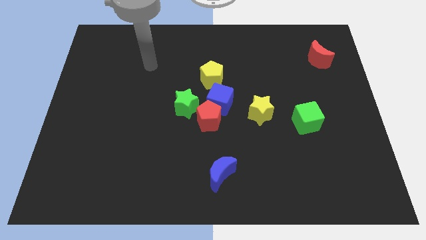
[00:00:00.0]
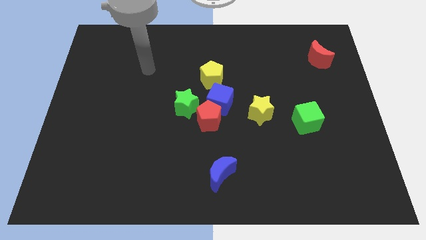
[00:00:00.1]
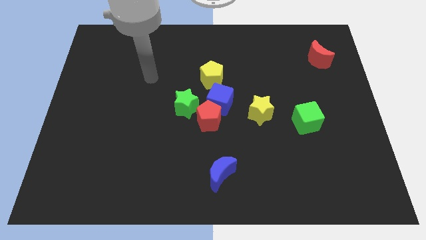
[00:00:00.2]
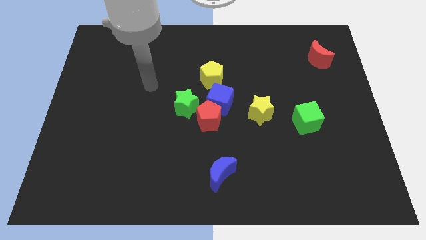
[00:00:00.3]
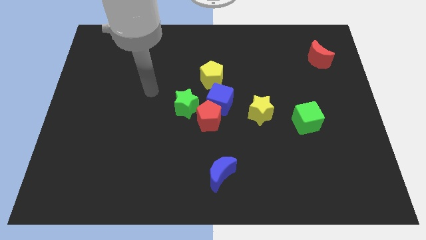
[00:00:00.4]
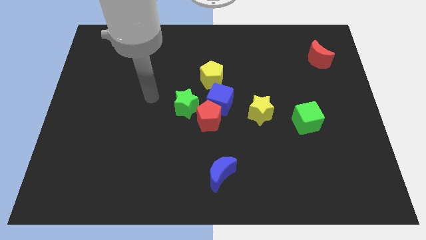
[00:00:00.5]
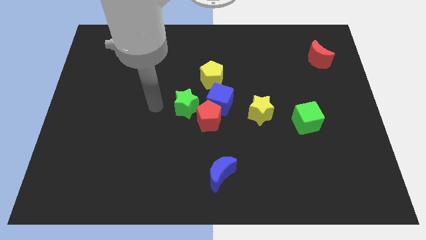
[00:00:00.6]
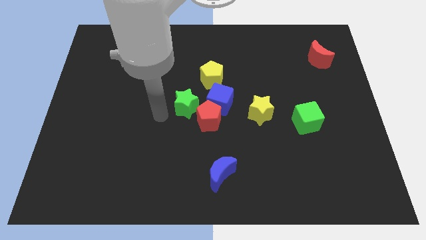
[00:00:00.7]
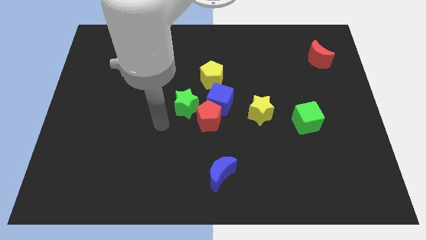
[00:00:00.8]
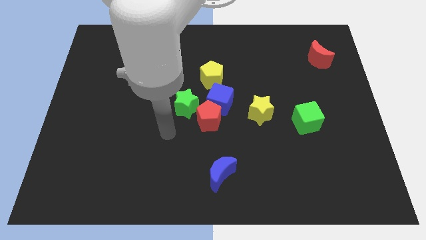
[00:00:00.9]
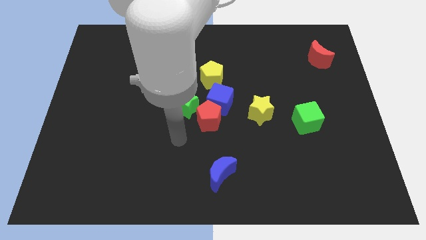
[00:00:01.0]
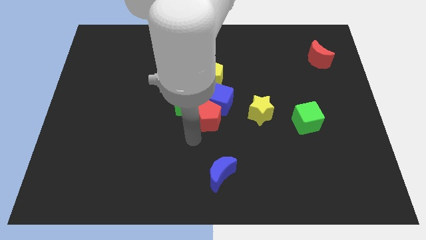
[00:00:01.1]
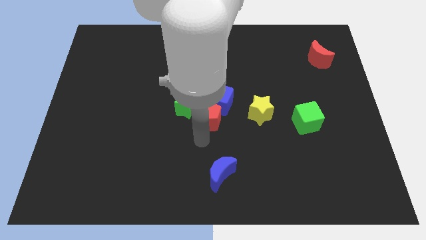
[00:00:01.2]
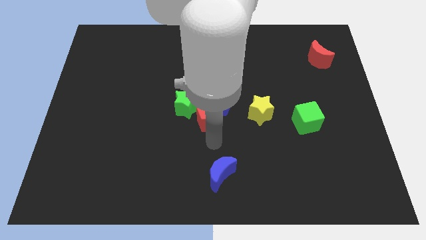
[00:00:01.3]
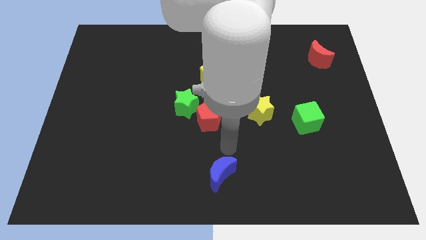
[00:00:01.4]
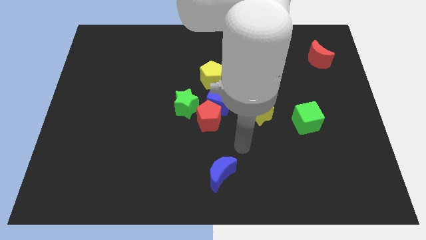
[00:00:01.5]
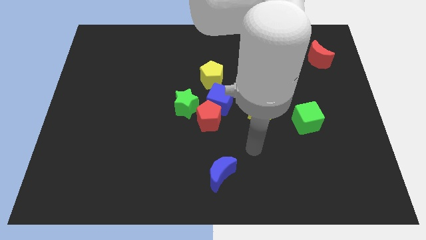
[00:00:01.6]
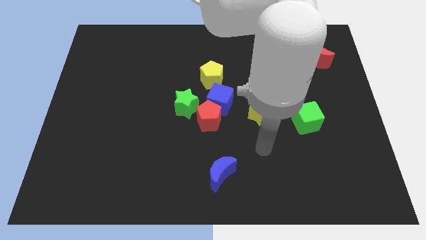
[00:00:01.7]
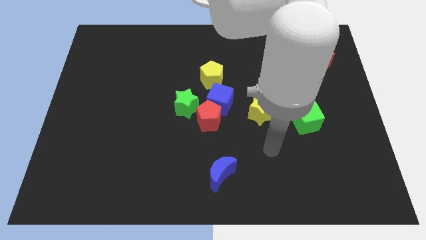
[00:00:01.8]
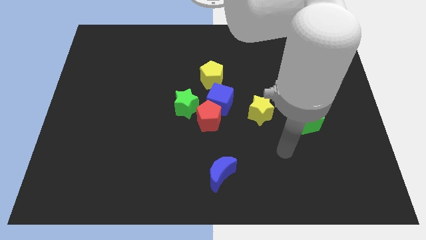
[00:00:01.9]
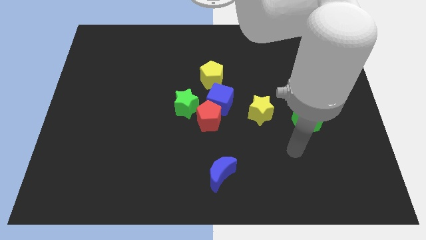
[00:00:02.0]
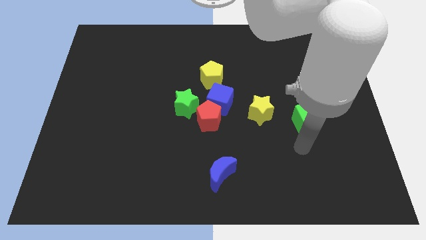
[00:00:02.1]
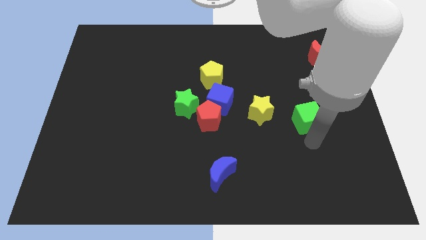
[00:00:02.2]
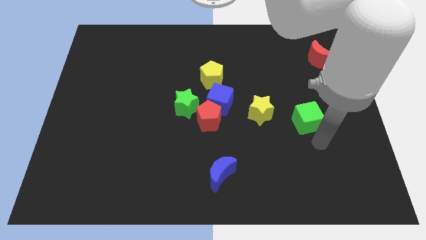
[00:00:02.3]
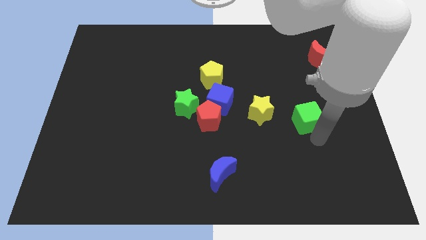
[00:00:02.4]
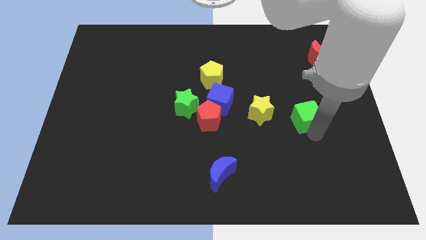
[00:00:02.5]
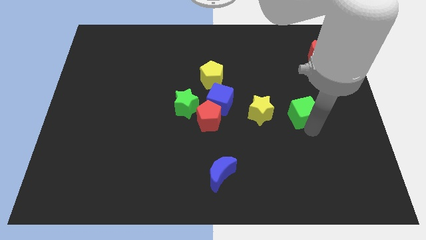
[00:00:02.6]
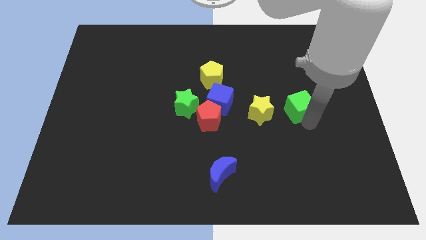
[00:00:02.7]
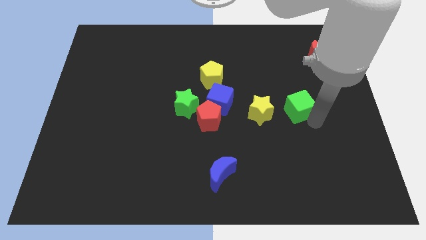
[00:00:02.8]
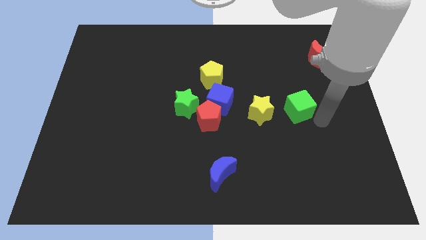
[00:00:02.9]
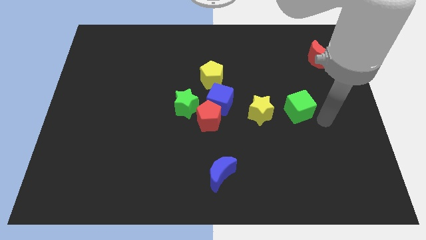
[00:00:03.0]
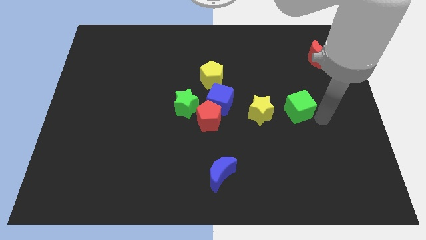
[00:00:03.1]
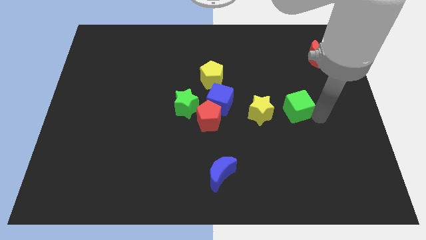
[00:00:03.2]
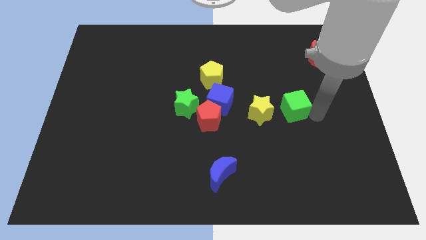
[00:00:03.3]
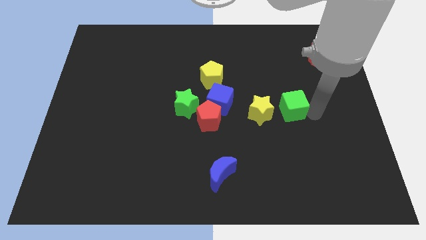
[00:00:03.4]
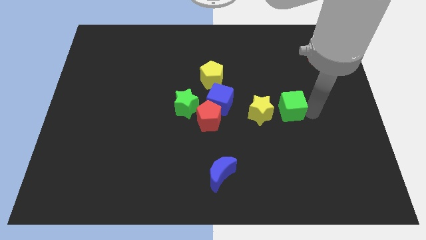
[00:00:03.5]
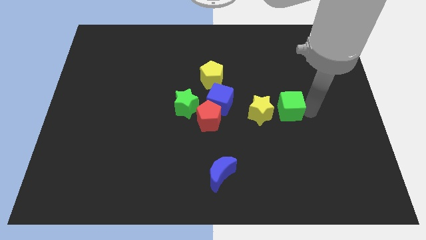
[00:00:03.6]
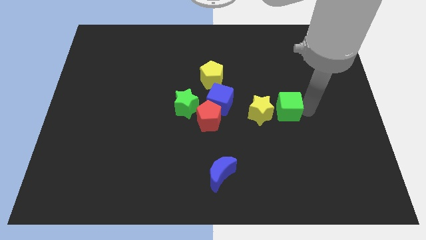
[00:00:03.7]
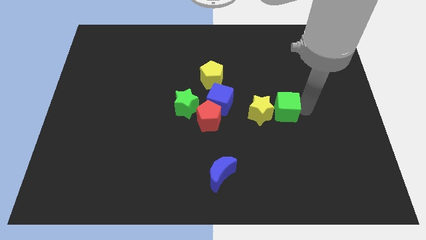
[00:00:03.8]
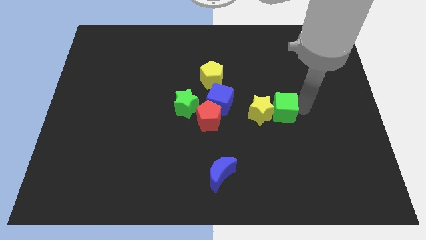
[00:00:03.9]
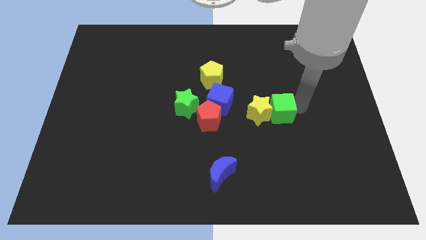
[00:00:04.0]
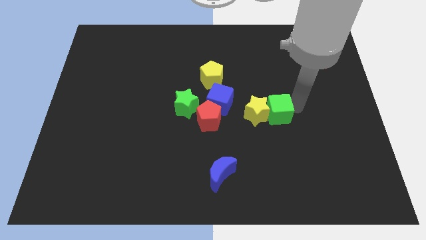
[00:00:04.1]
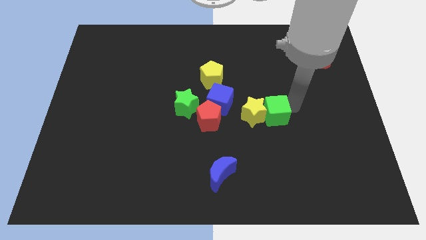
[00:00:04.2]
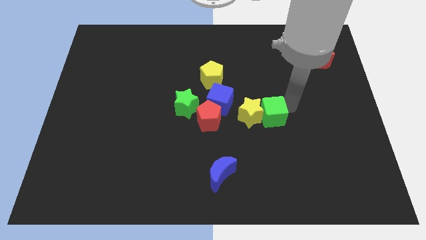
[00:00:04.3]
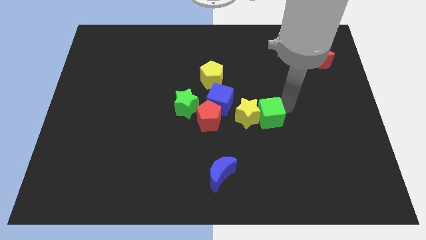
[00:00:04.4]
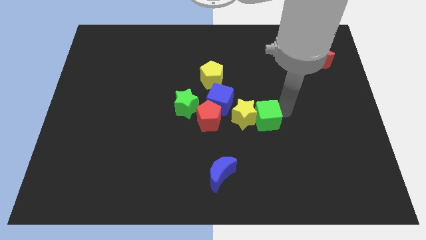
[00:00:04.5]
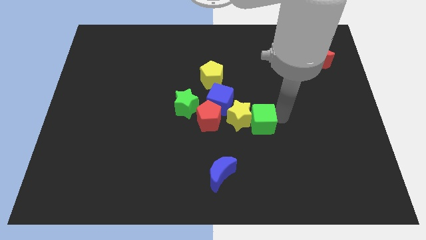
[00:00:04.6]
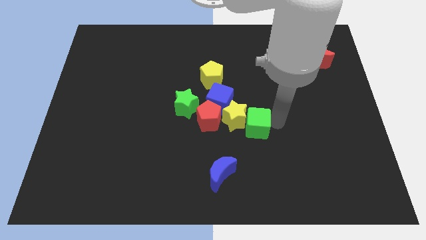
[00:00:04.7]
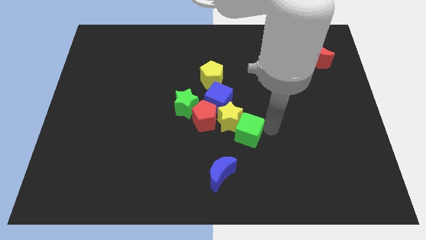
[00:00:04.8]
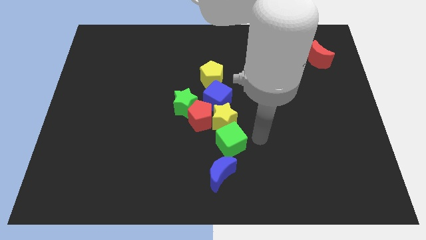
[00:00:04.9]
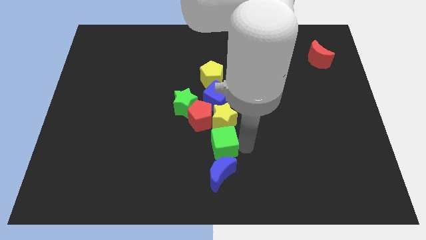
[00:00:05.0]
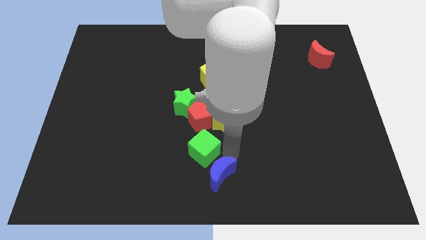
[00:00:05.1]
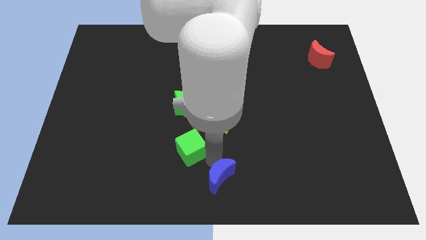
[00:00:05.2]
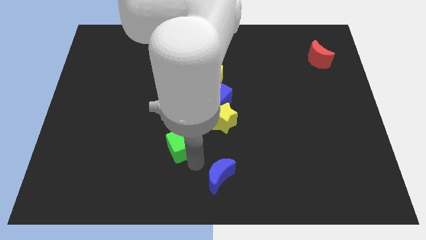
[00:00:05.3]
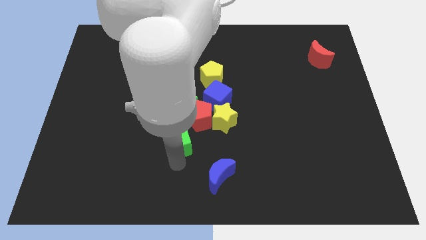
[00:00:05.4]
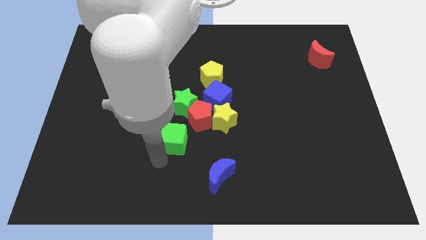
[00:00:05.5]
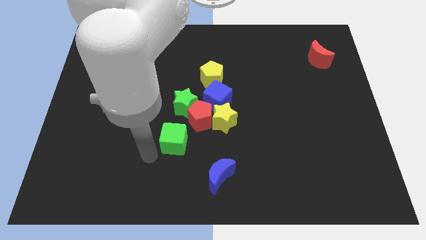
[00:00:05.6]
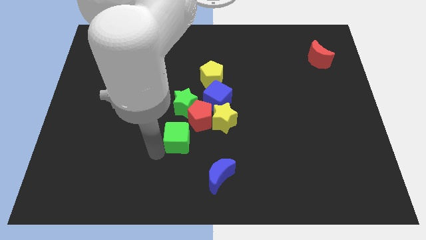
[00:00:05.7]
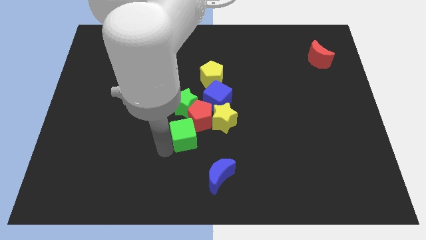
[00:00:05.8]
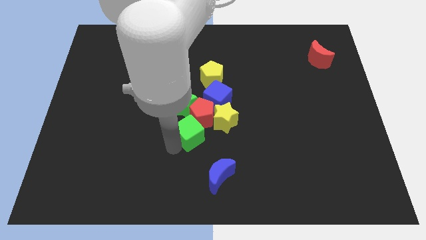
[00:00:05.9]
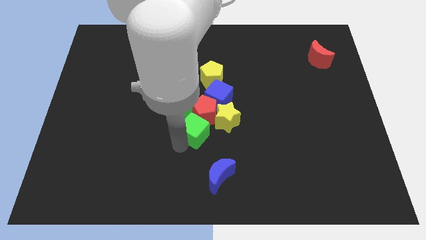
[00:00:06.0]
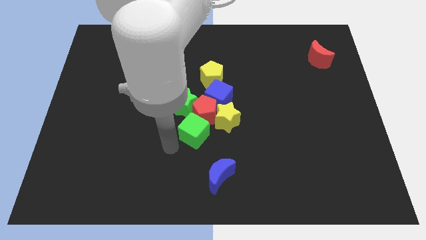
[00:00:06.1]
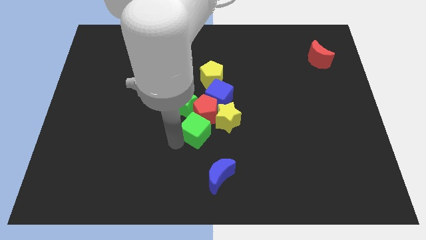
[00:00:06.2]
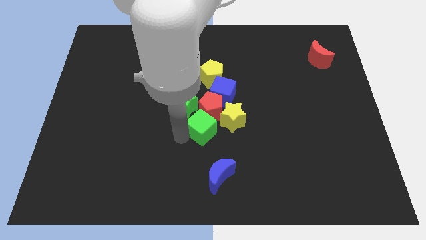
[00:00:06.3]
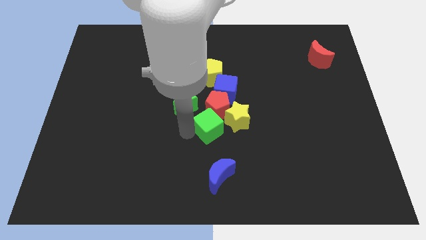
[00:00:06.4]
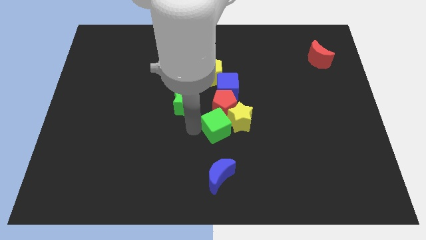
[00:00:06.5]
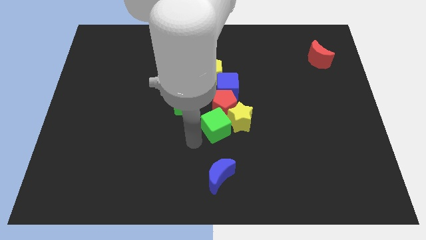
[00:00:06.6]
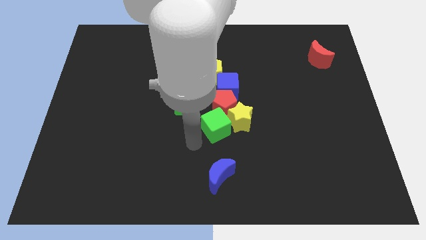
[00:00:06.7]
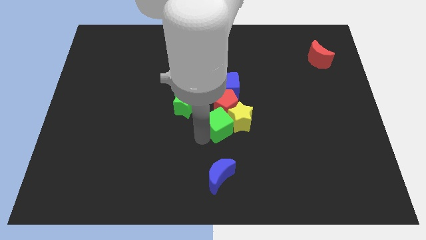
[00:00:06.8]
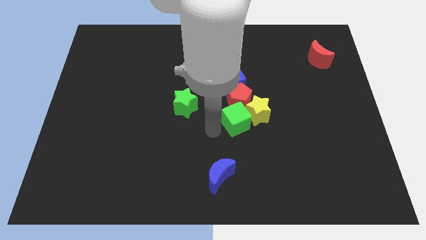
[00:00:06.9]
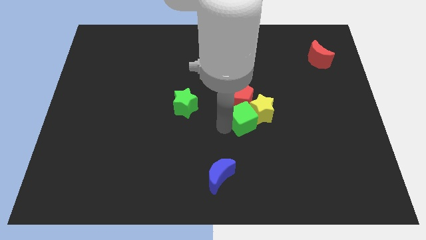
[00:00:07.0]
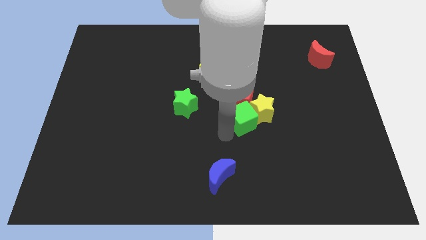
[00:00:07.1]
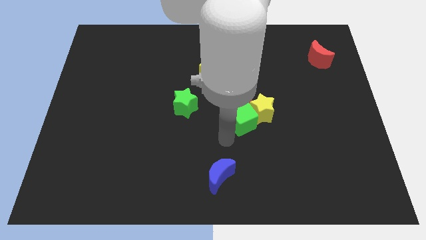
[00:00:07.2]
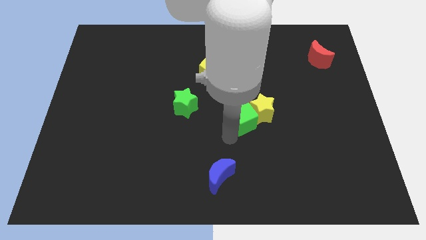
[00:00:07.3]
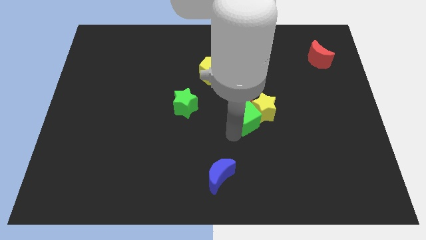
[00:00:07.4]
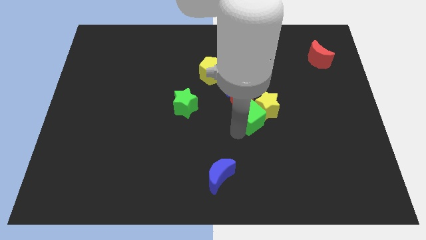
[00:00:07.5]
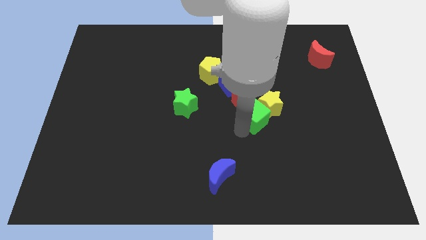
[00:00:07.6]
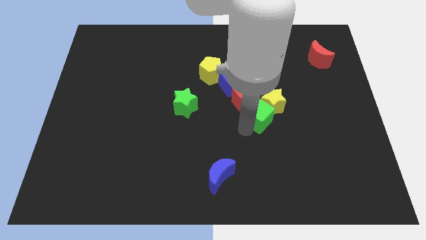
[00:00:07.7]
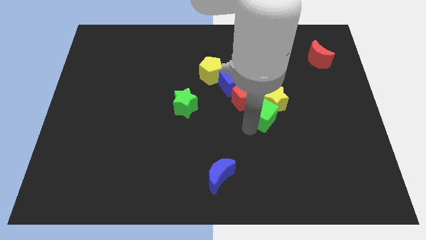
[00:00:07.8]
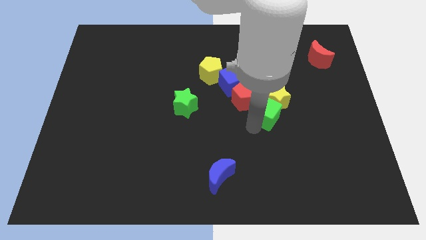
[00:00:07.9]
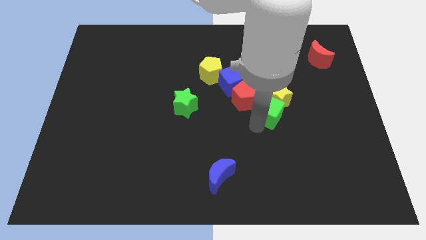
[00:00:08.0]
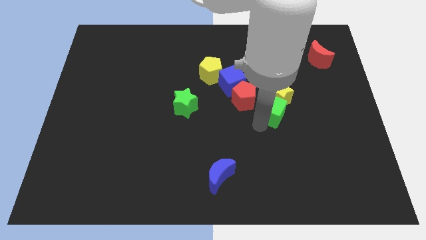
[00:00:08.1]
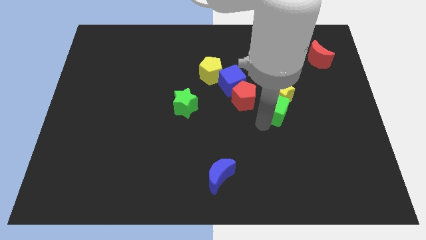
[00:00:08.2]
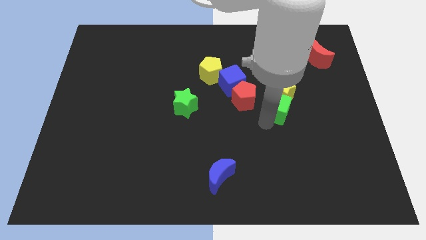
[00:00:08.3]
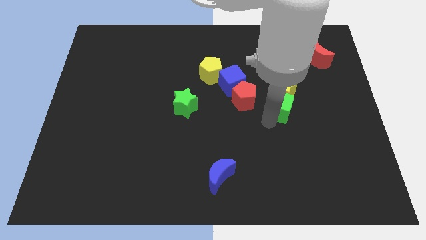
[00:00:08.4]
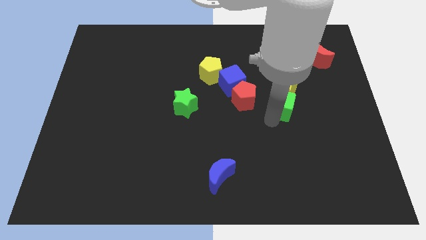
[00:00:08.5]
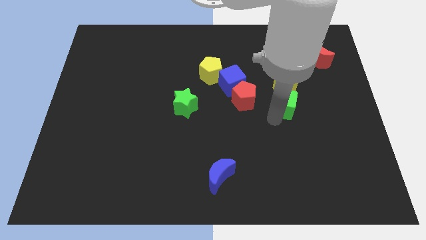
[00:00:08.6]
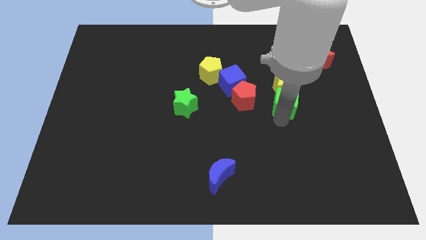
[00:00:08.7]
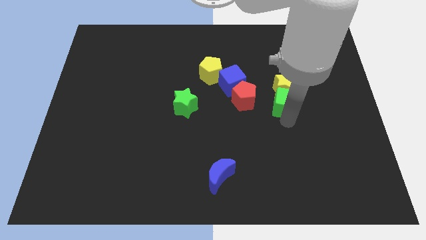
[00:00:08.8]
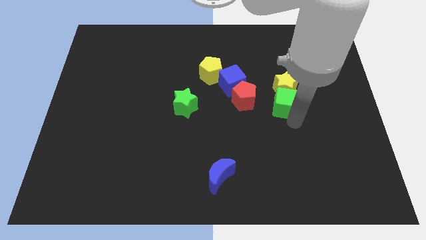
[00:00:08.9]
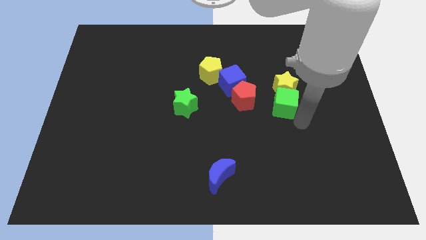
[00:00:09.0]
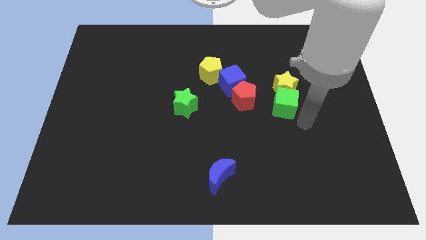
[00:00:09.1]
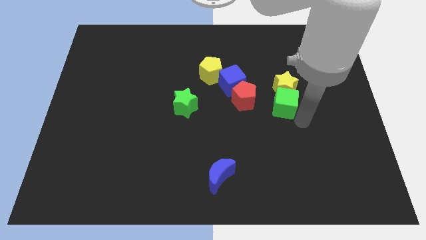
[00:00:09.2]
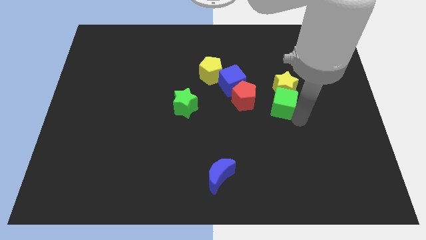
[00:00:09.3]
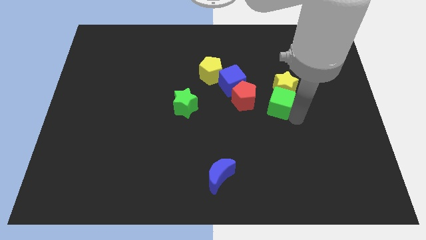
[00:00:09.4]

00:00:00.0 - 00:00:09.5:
move the green cube a little up and to the left diagonally
